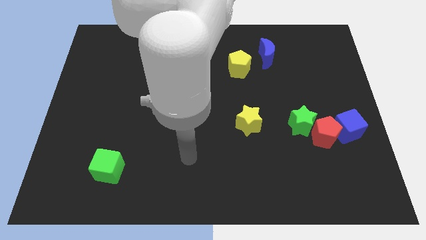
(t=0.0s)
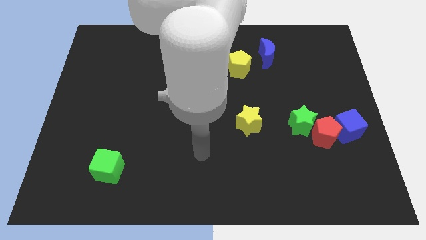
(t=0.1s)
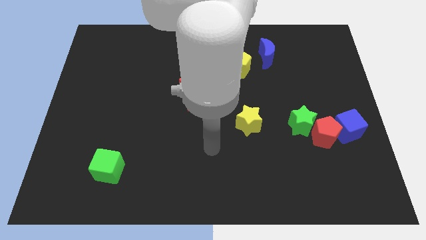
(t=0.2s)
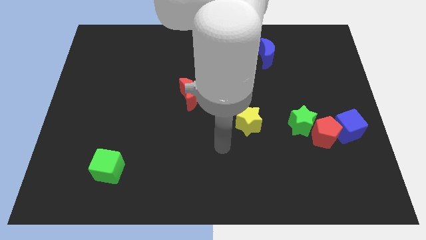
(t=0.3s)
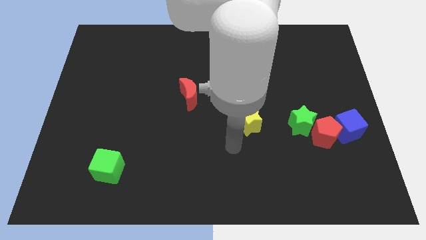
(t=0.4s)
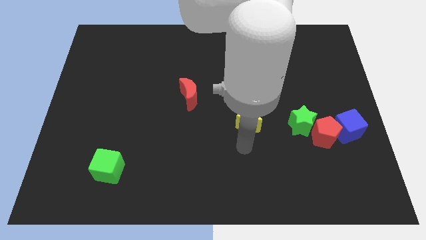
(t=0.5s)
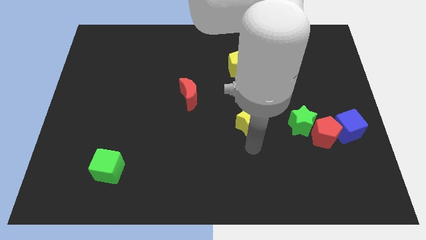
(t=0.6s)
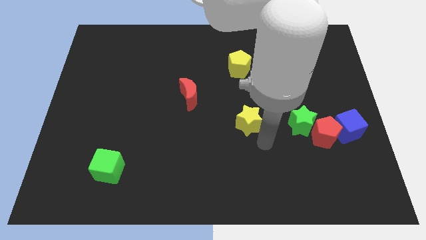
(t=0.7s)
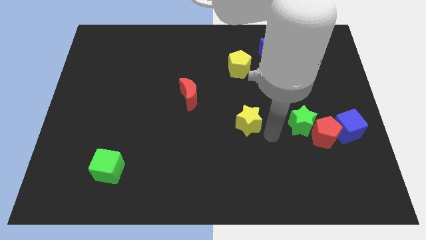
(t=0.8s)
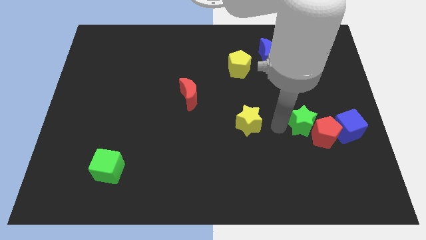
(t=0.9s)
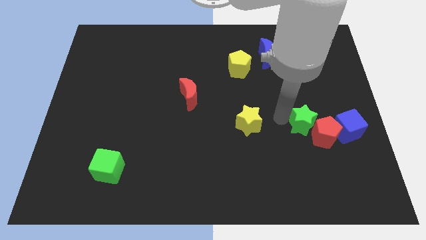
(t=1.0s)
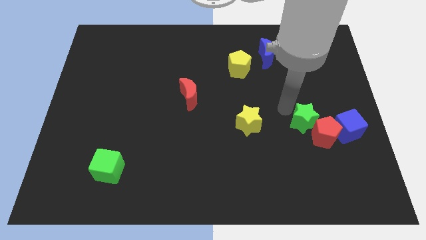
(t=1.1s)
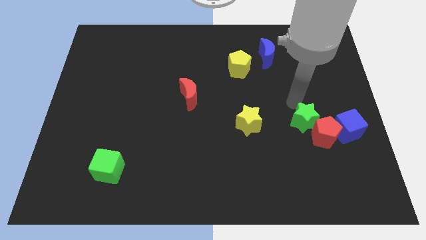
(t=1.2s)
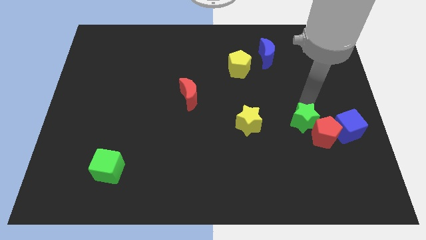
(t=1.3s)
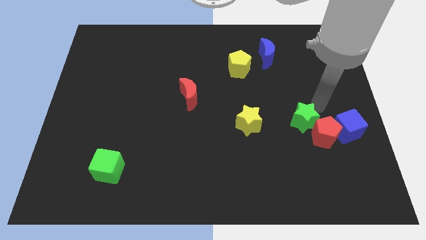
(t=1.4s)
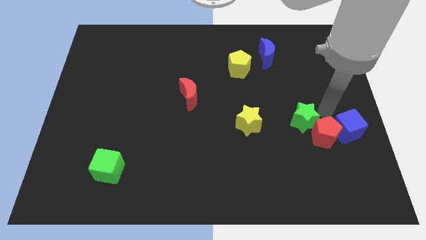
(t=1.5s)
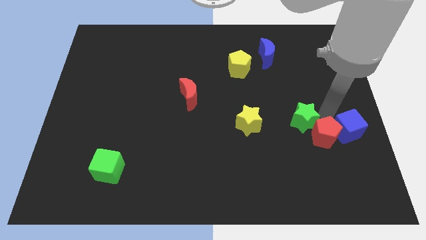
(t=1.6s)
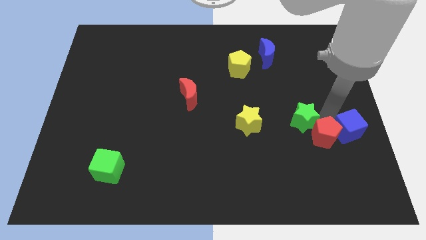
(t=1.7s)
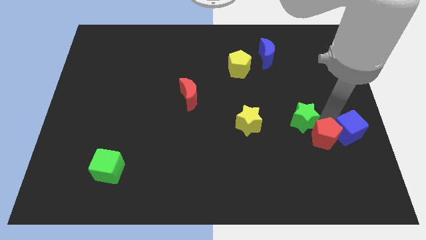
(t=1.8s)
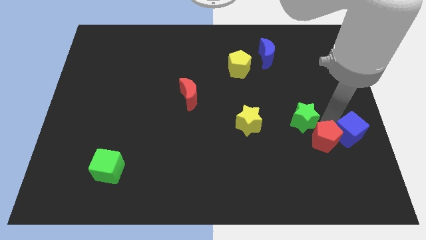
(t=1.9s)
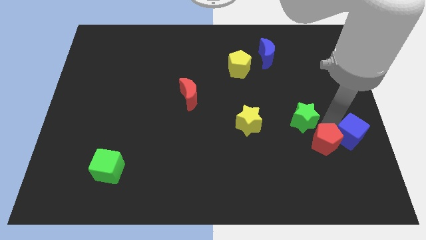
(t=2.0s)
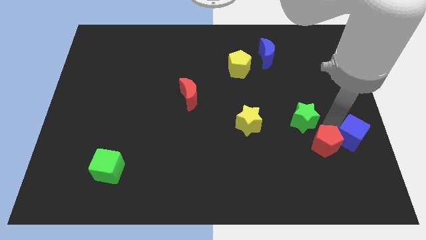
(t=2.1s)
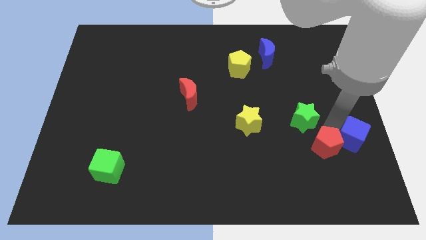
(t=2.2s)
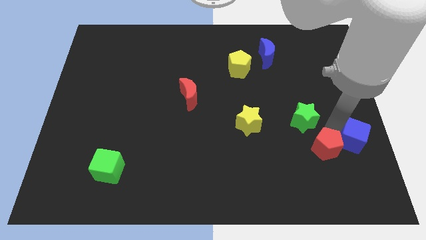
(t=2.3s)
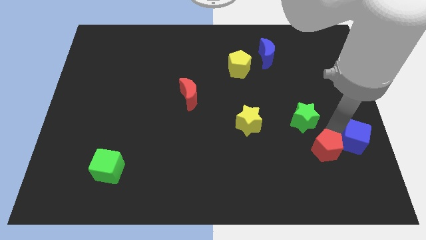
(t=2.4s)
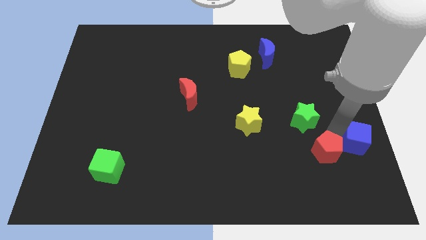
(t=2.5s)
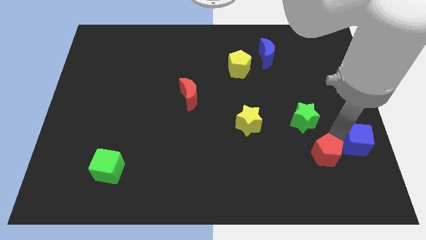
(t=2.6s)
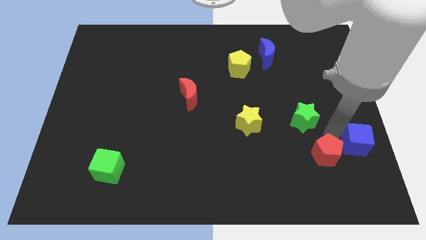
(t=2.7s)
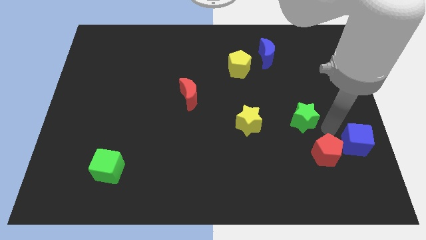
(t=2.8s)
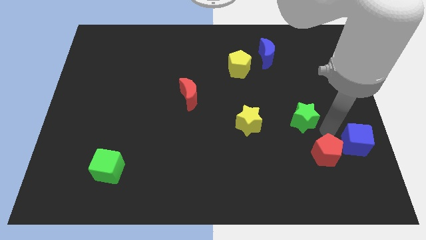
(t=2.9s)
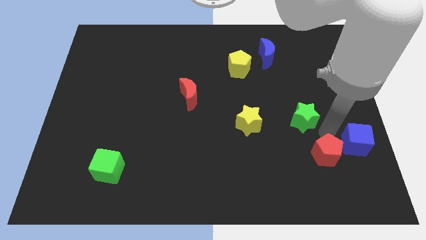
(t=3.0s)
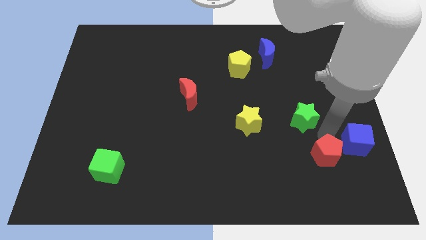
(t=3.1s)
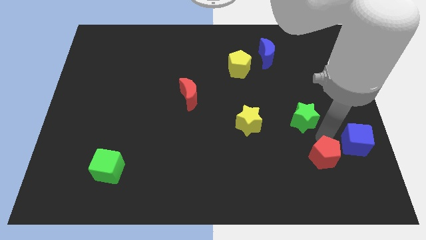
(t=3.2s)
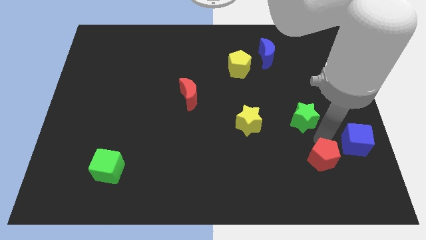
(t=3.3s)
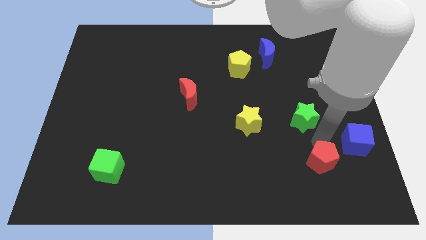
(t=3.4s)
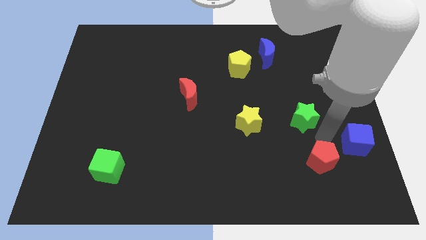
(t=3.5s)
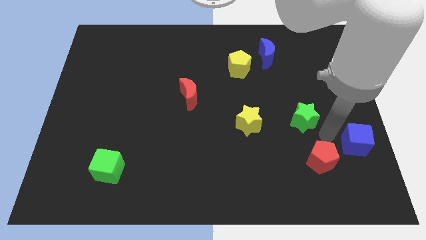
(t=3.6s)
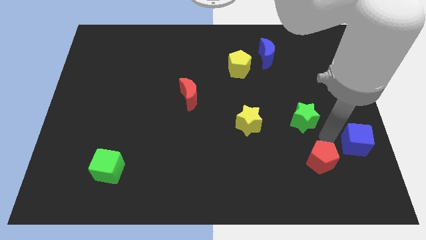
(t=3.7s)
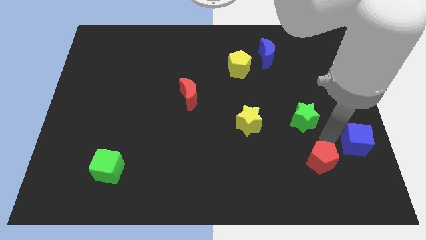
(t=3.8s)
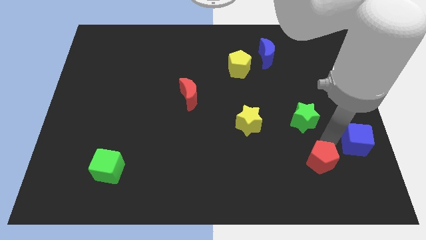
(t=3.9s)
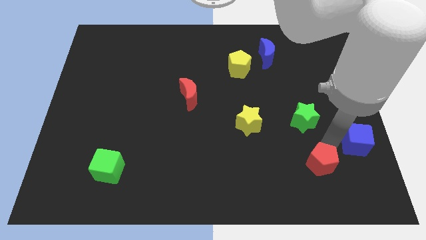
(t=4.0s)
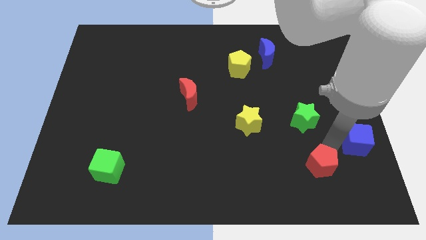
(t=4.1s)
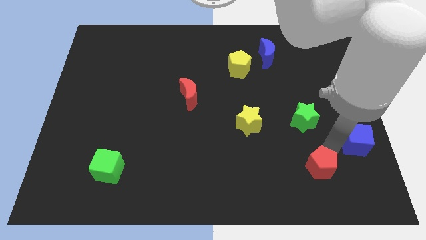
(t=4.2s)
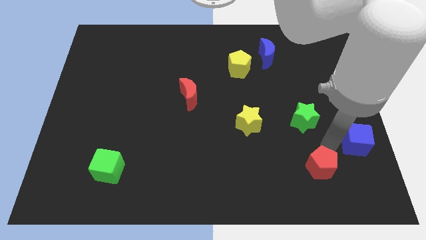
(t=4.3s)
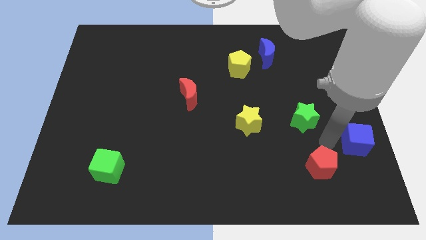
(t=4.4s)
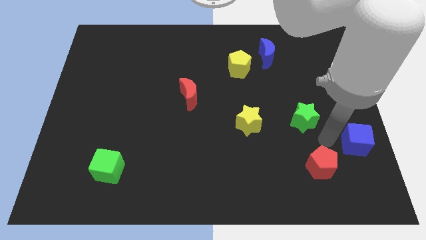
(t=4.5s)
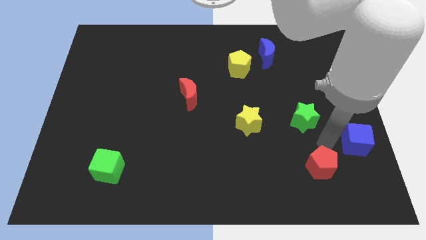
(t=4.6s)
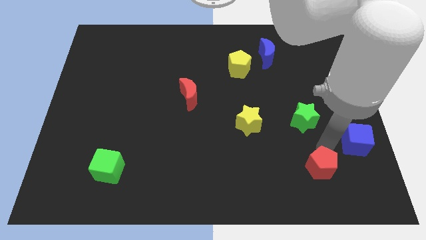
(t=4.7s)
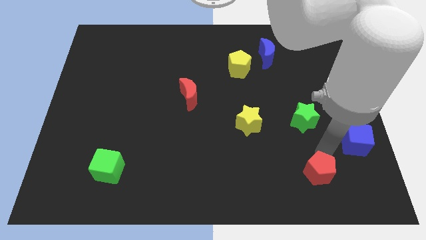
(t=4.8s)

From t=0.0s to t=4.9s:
separate the red pentagon from the green star and blue cube

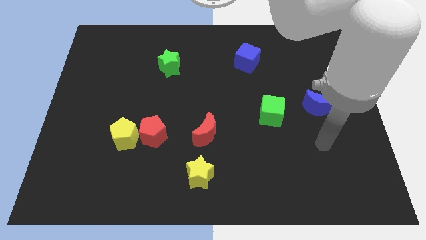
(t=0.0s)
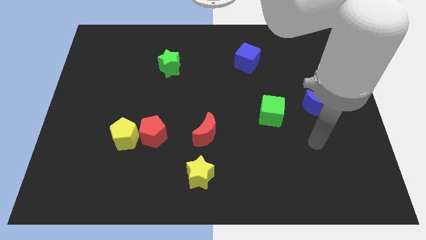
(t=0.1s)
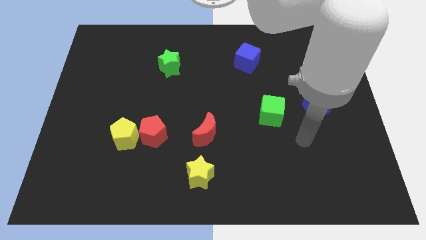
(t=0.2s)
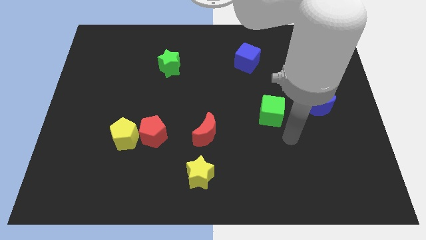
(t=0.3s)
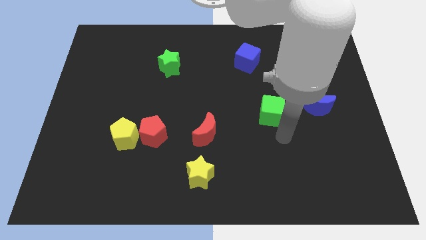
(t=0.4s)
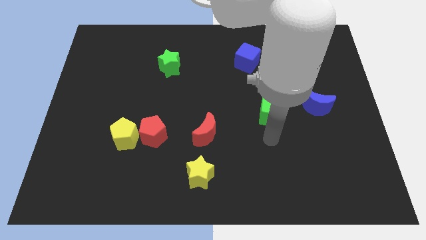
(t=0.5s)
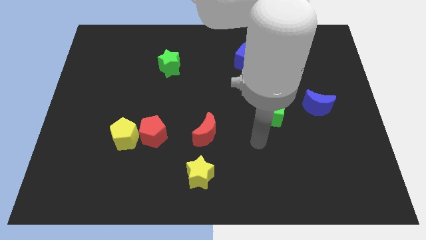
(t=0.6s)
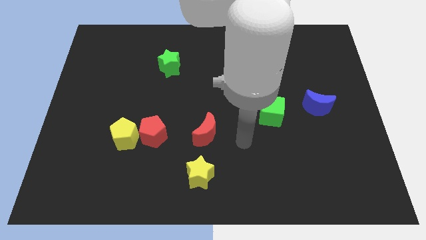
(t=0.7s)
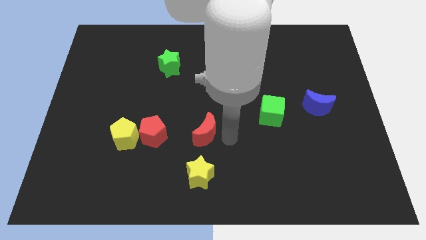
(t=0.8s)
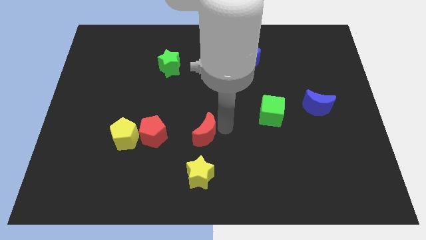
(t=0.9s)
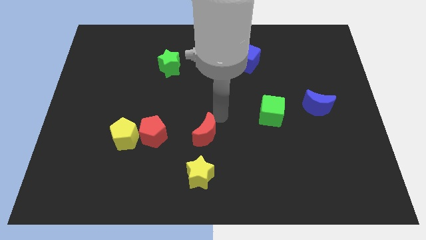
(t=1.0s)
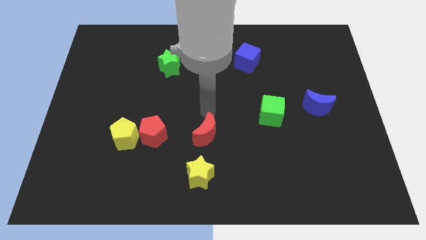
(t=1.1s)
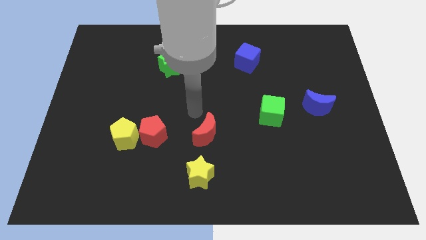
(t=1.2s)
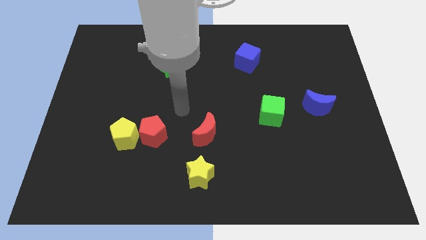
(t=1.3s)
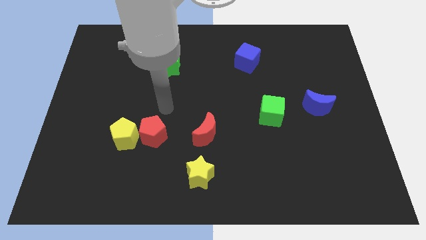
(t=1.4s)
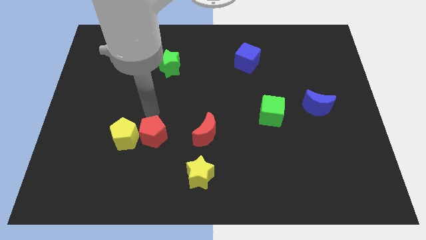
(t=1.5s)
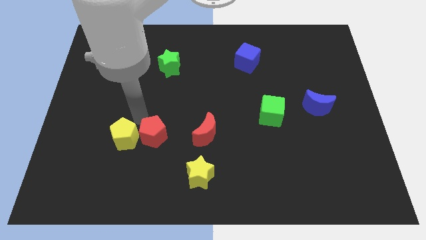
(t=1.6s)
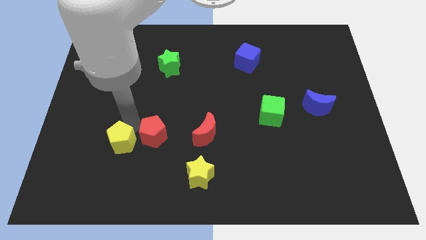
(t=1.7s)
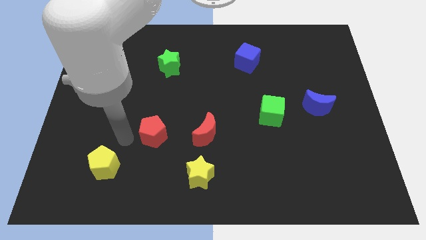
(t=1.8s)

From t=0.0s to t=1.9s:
pull the red pentagon apart from the yellow pentagon

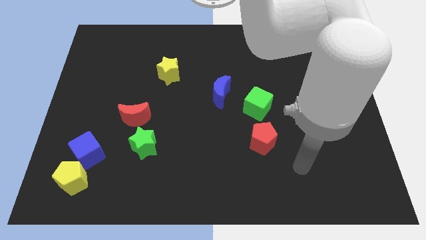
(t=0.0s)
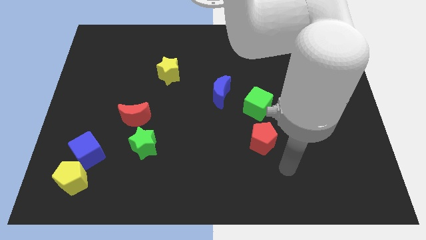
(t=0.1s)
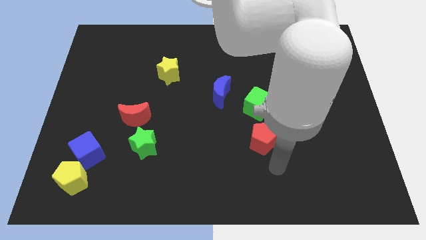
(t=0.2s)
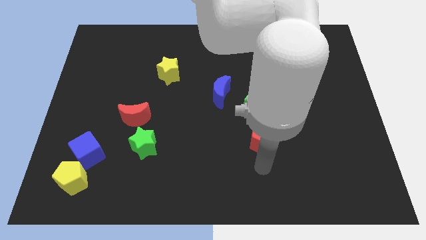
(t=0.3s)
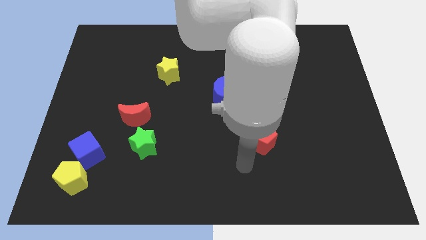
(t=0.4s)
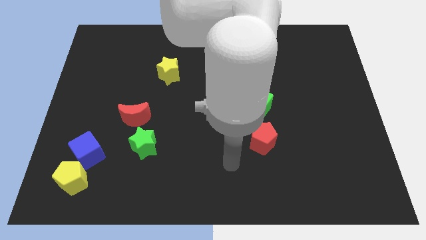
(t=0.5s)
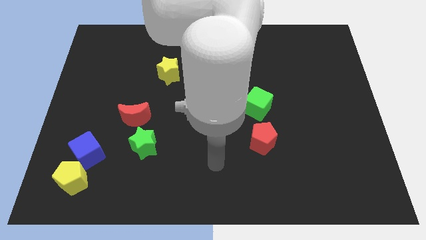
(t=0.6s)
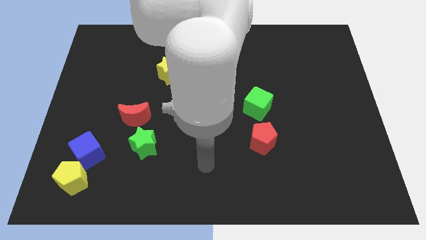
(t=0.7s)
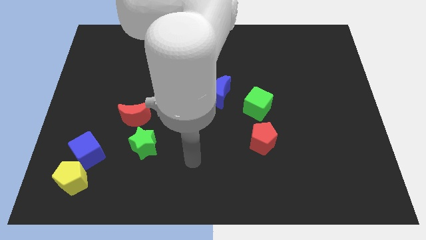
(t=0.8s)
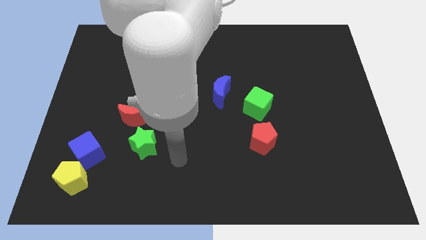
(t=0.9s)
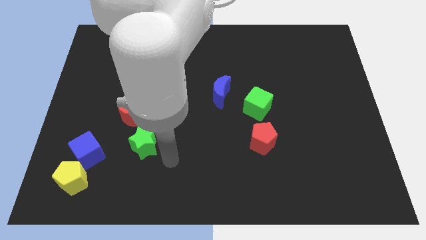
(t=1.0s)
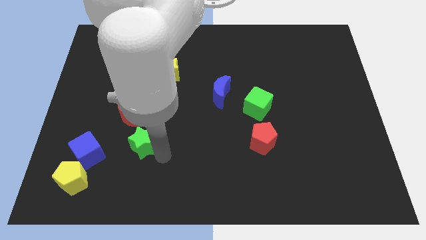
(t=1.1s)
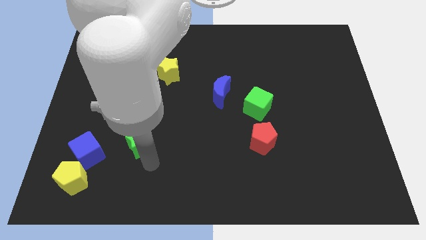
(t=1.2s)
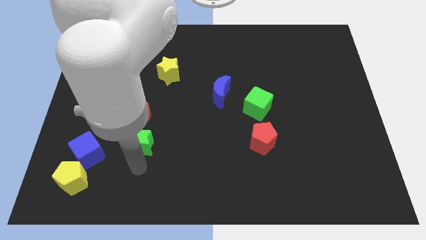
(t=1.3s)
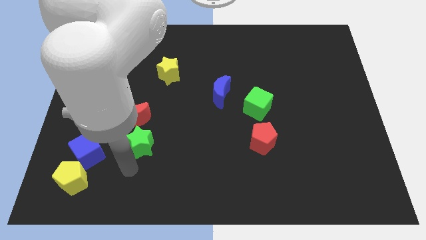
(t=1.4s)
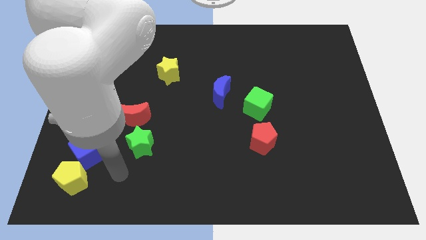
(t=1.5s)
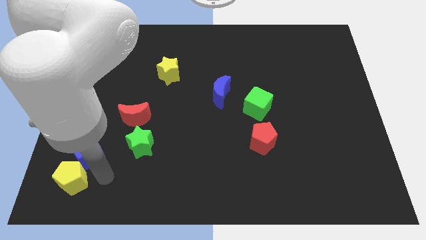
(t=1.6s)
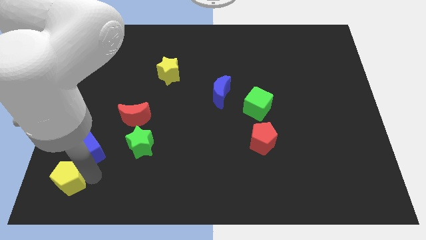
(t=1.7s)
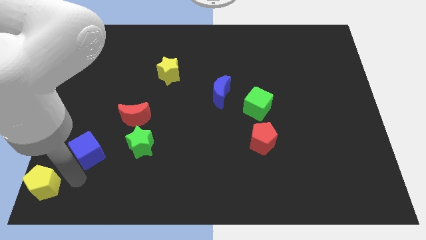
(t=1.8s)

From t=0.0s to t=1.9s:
move the blue cube away from the yellow pentagon

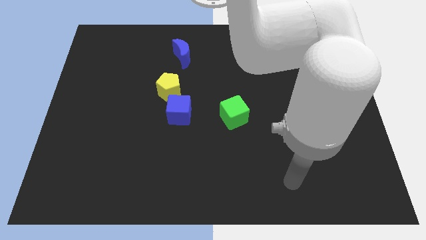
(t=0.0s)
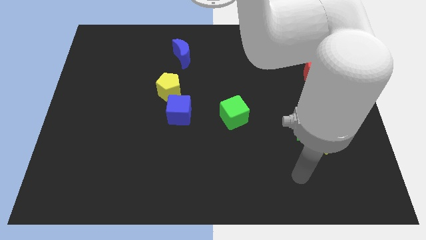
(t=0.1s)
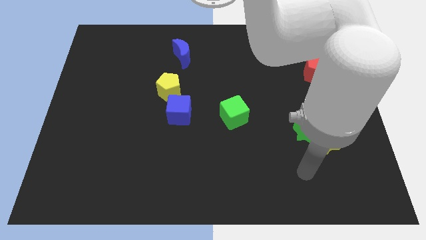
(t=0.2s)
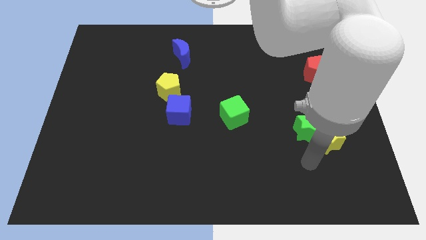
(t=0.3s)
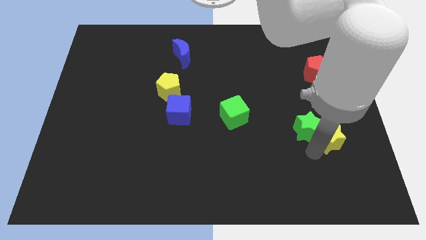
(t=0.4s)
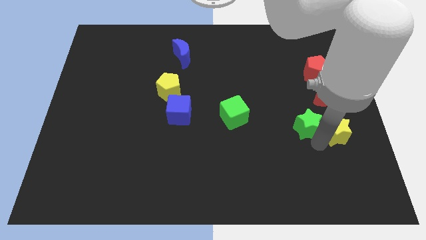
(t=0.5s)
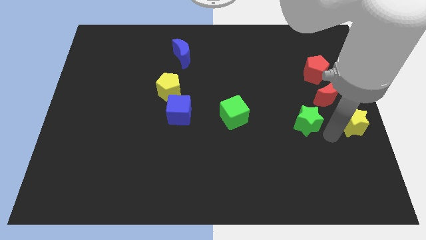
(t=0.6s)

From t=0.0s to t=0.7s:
move the green star away from the yellow star
